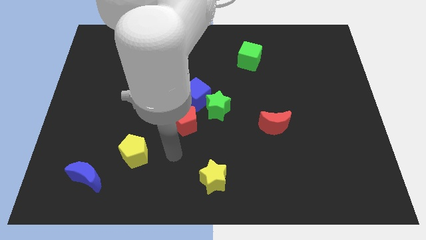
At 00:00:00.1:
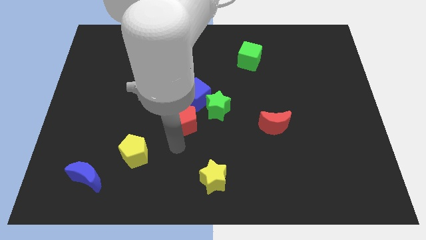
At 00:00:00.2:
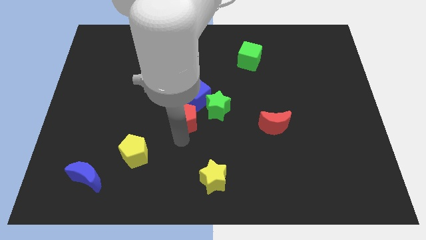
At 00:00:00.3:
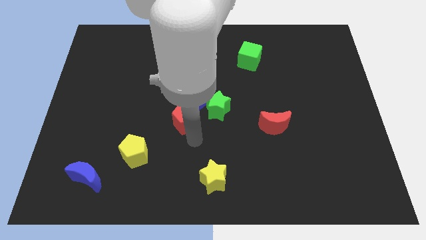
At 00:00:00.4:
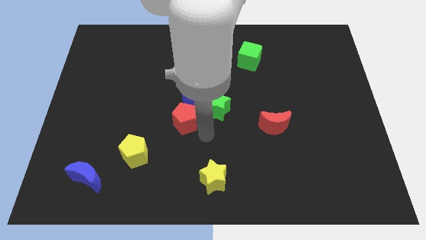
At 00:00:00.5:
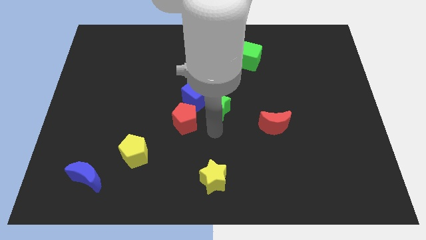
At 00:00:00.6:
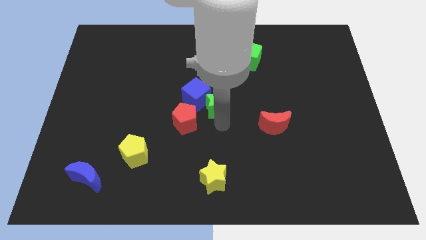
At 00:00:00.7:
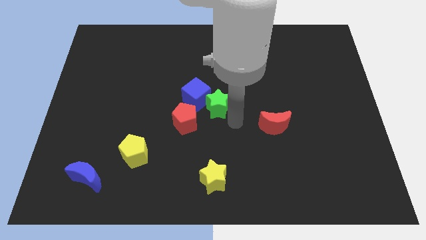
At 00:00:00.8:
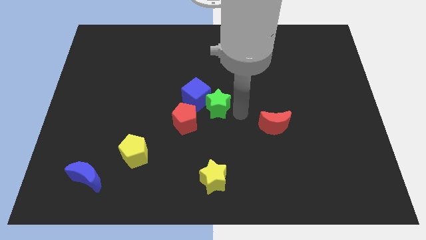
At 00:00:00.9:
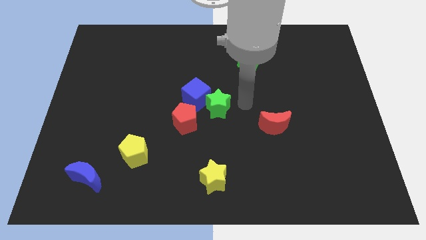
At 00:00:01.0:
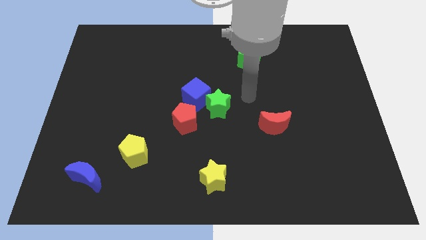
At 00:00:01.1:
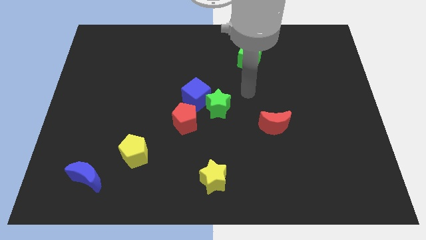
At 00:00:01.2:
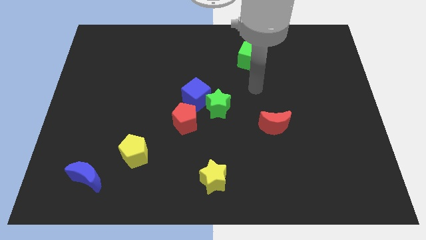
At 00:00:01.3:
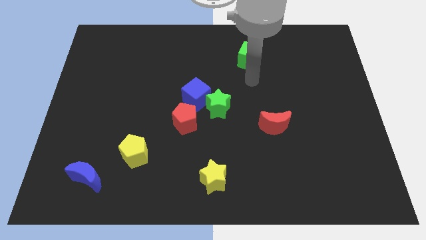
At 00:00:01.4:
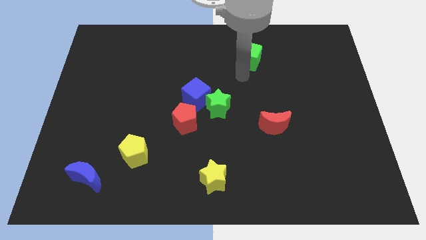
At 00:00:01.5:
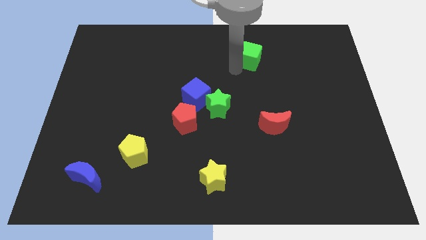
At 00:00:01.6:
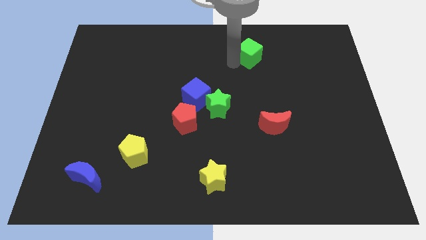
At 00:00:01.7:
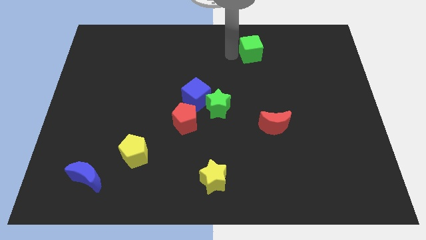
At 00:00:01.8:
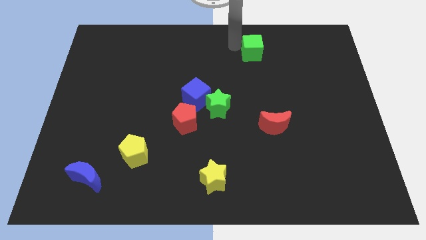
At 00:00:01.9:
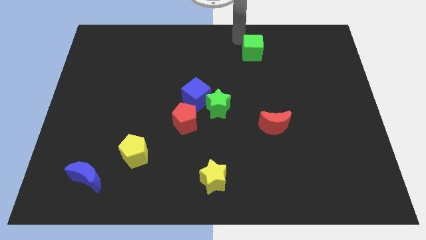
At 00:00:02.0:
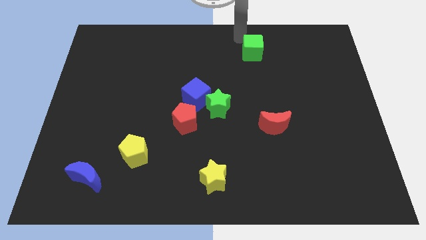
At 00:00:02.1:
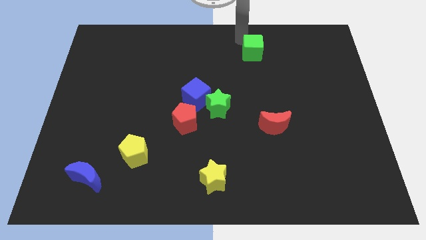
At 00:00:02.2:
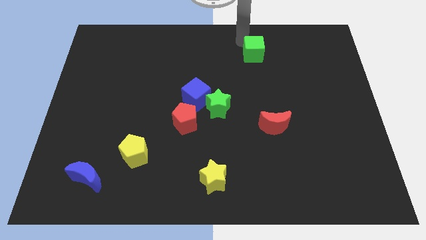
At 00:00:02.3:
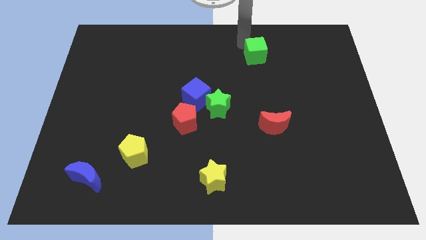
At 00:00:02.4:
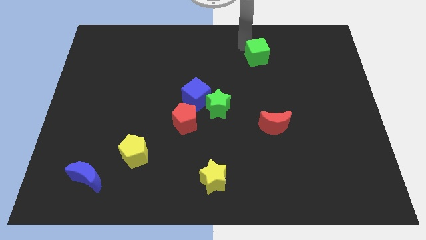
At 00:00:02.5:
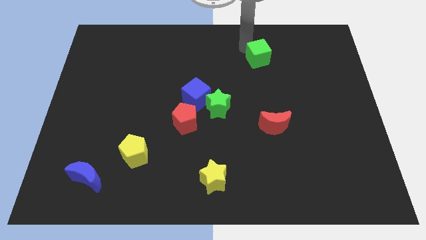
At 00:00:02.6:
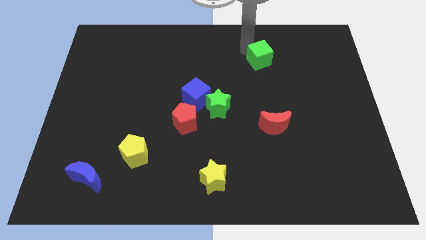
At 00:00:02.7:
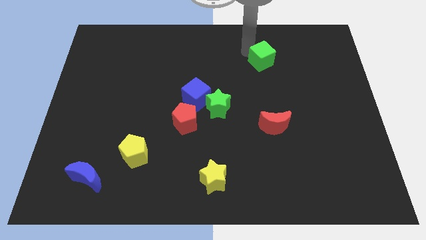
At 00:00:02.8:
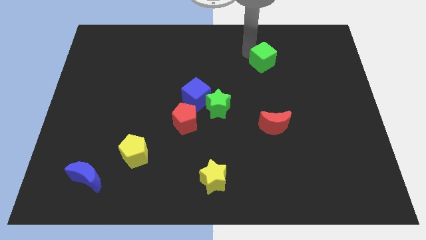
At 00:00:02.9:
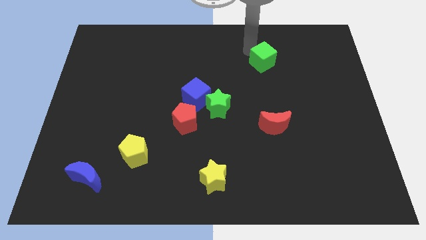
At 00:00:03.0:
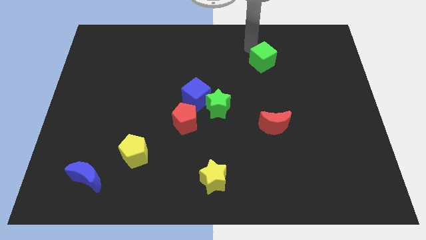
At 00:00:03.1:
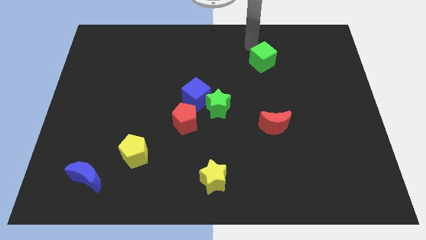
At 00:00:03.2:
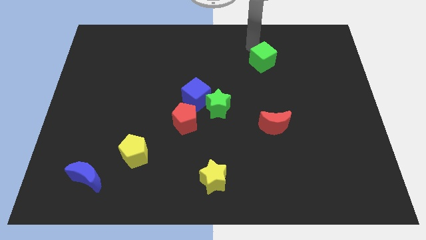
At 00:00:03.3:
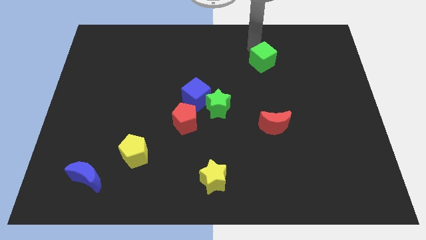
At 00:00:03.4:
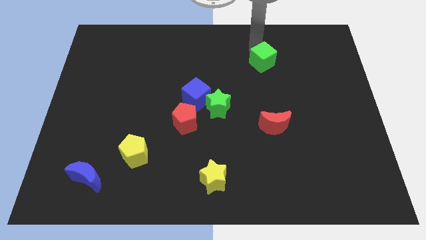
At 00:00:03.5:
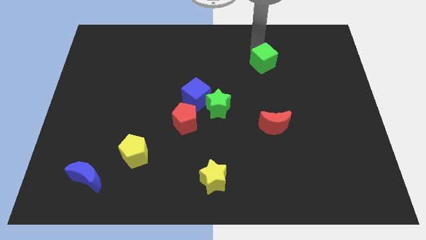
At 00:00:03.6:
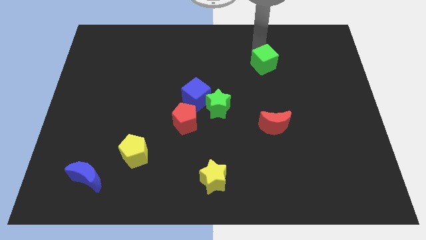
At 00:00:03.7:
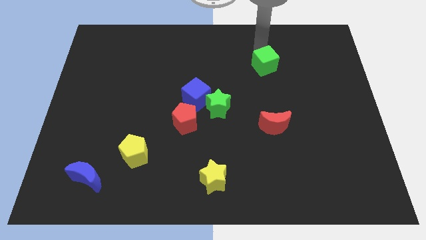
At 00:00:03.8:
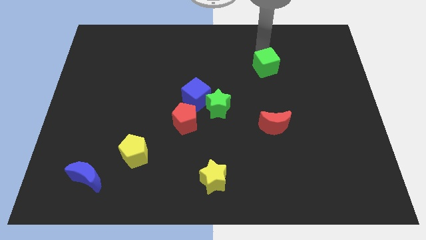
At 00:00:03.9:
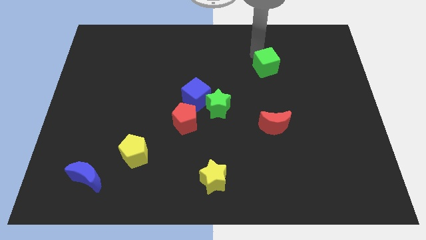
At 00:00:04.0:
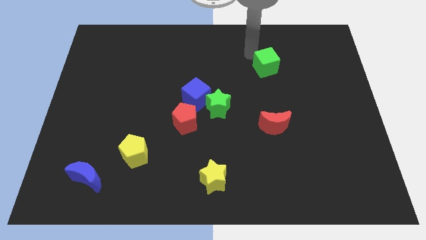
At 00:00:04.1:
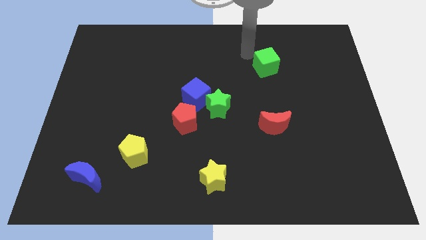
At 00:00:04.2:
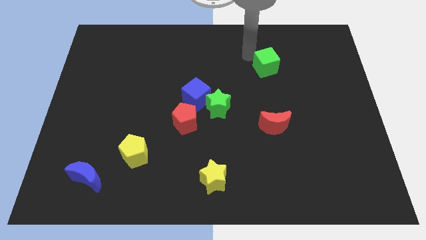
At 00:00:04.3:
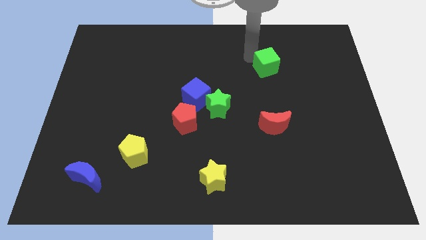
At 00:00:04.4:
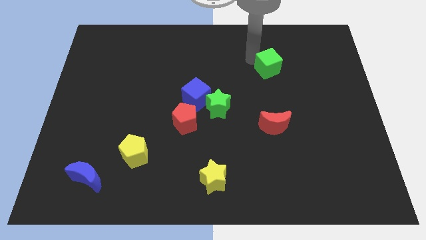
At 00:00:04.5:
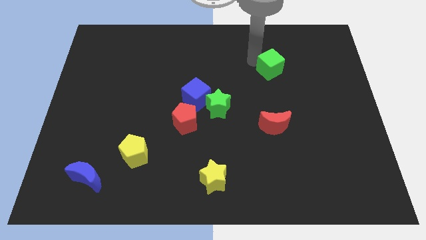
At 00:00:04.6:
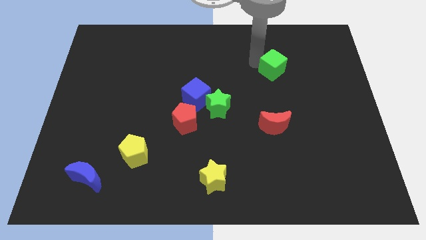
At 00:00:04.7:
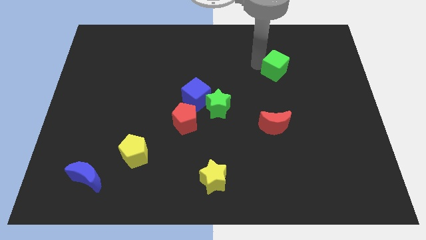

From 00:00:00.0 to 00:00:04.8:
slide the green cube somewhat down and to the right

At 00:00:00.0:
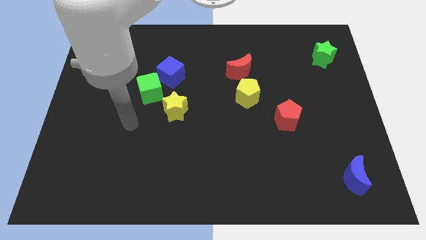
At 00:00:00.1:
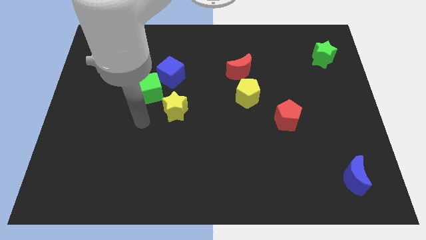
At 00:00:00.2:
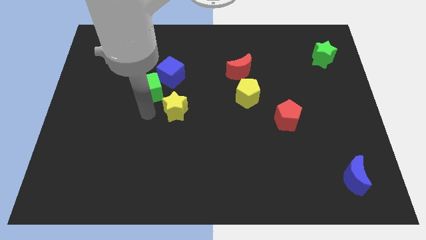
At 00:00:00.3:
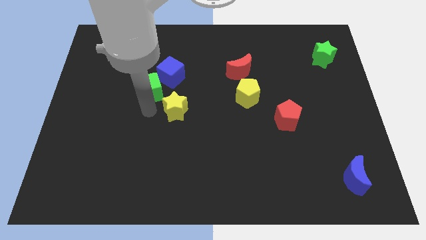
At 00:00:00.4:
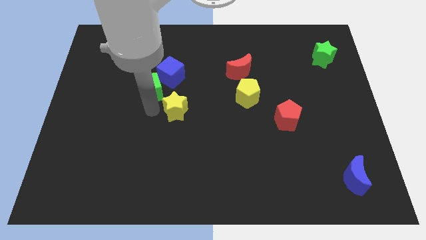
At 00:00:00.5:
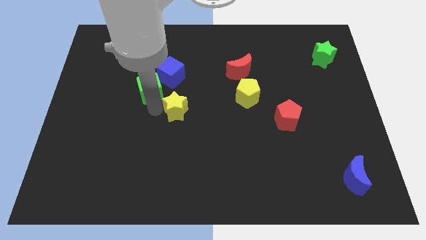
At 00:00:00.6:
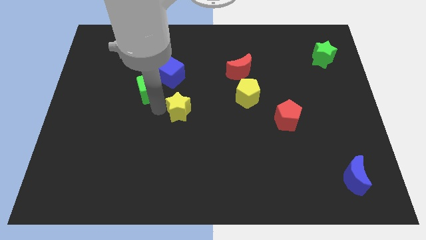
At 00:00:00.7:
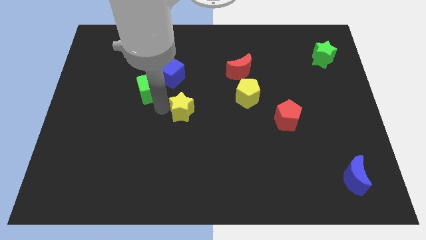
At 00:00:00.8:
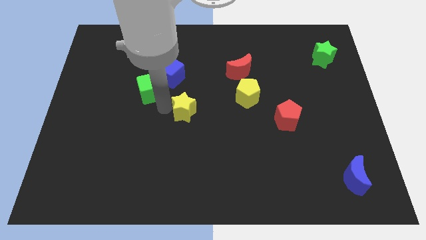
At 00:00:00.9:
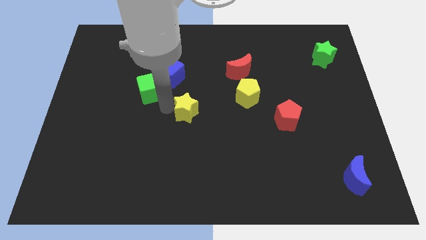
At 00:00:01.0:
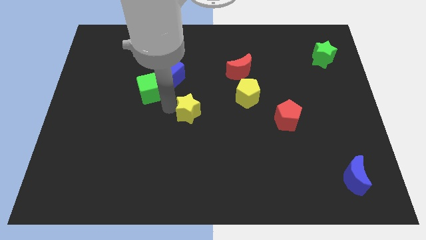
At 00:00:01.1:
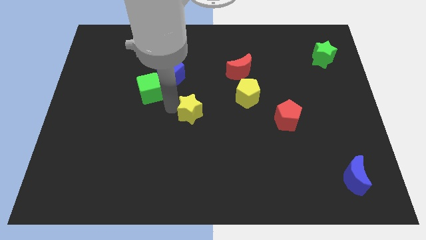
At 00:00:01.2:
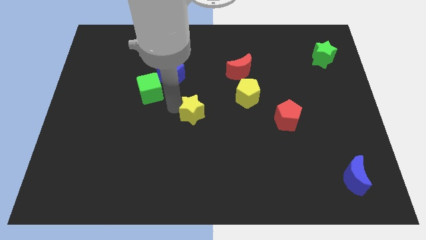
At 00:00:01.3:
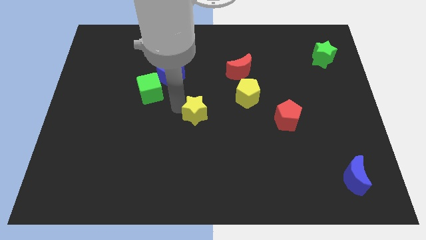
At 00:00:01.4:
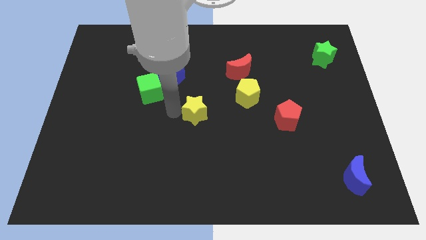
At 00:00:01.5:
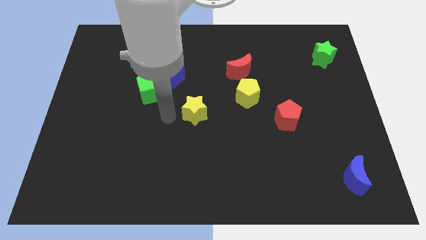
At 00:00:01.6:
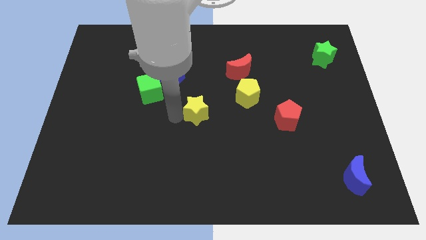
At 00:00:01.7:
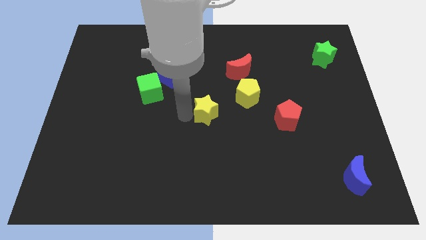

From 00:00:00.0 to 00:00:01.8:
slide the yellow star slightly right

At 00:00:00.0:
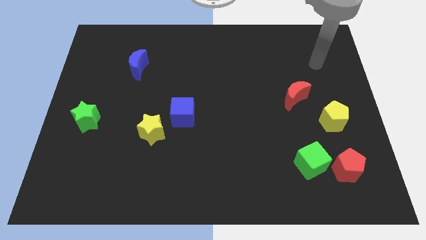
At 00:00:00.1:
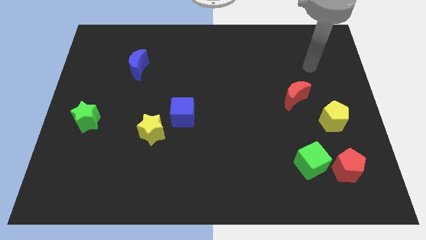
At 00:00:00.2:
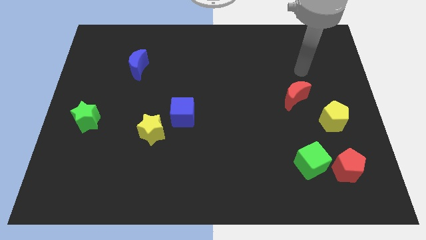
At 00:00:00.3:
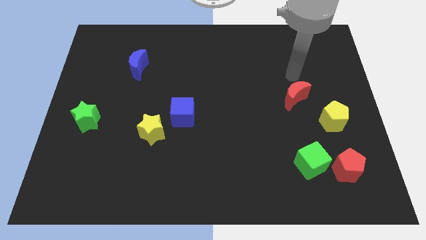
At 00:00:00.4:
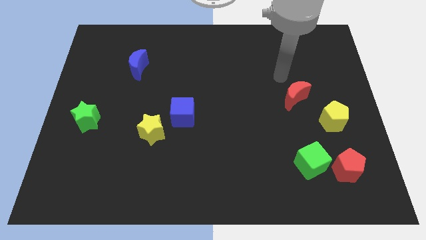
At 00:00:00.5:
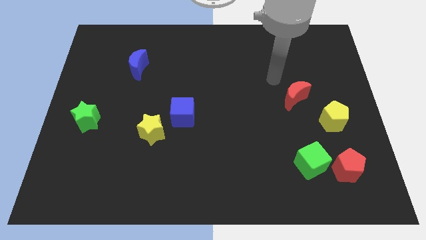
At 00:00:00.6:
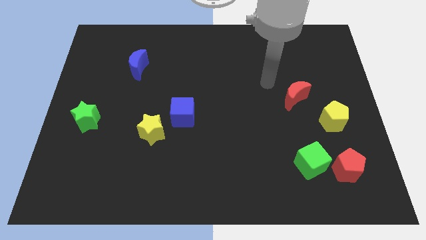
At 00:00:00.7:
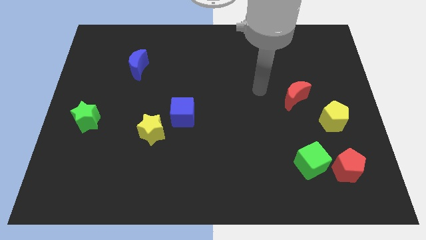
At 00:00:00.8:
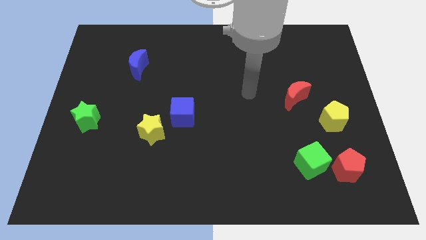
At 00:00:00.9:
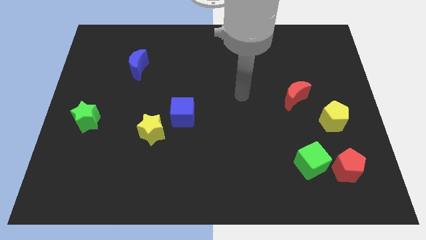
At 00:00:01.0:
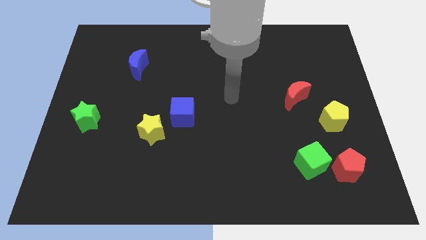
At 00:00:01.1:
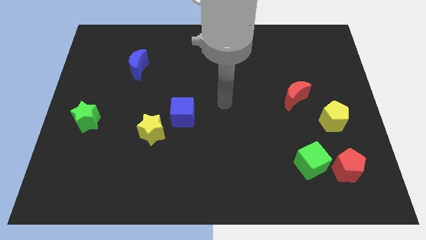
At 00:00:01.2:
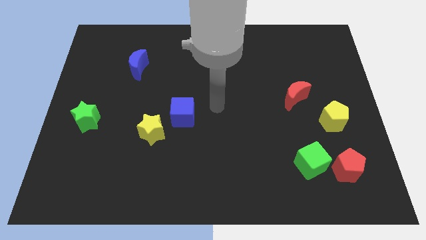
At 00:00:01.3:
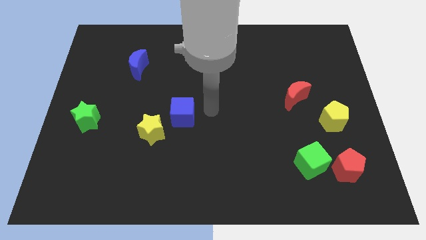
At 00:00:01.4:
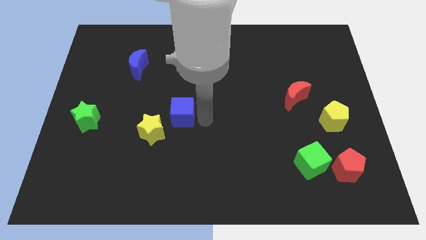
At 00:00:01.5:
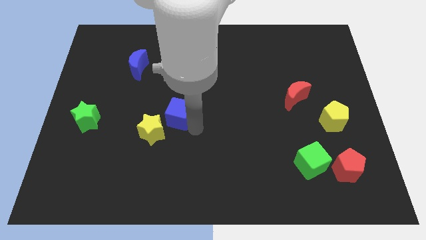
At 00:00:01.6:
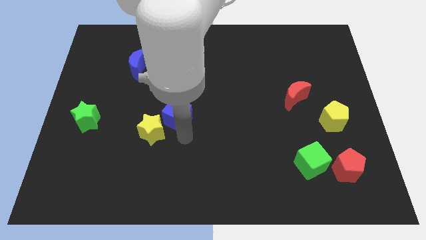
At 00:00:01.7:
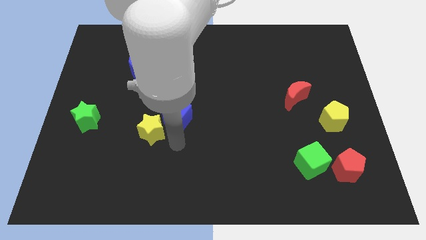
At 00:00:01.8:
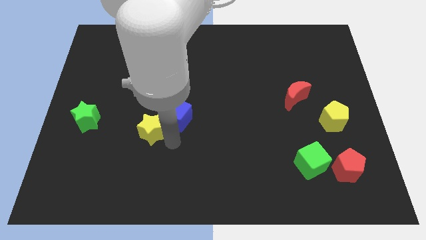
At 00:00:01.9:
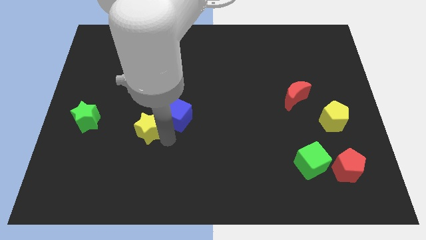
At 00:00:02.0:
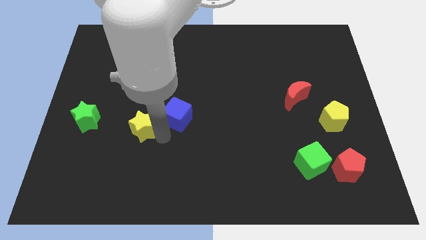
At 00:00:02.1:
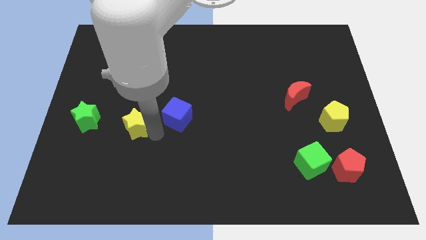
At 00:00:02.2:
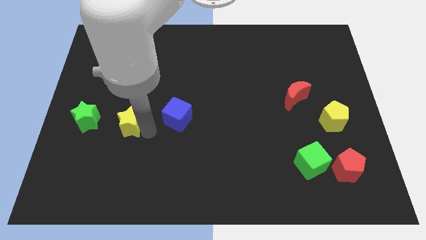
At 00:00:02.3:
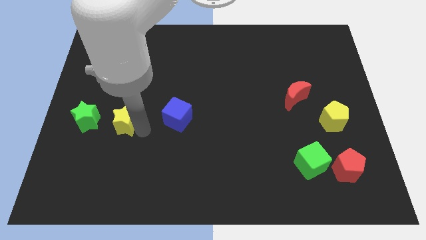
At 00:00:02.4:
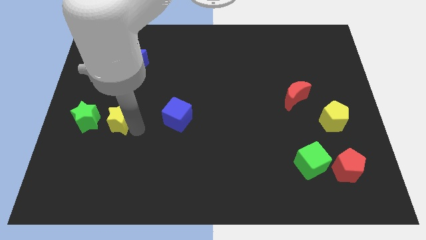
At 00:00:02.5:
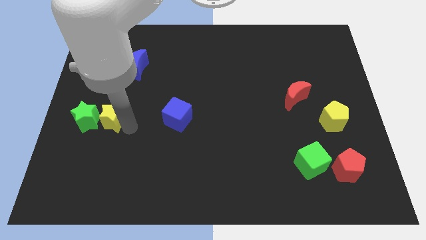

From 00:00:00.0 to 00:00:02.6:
slightly slide the yellow star diagonally up and left
